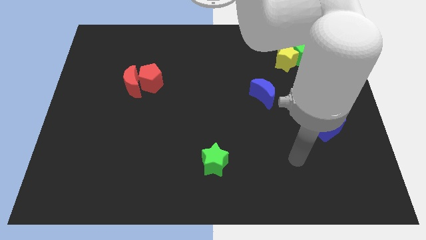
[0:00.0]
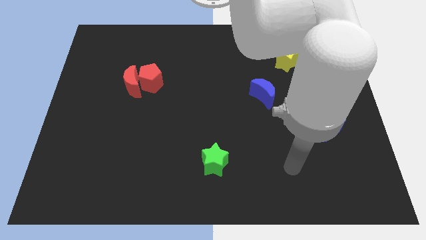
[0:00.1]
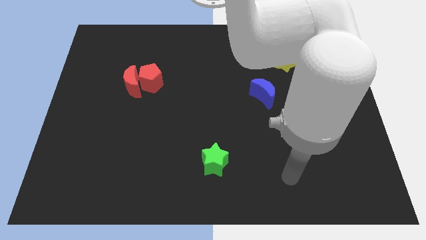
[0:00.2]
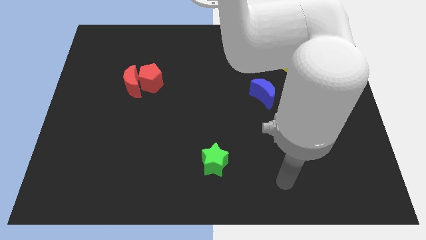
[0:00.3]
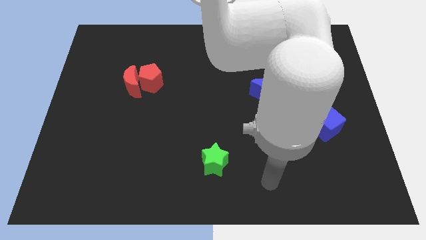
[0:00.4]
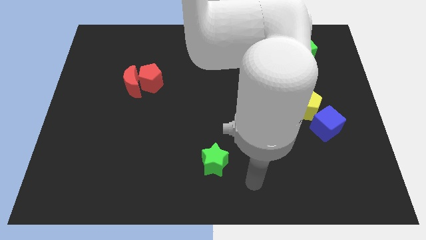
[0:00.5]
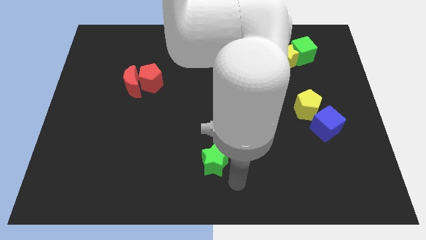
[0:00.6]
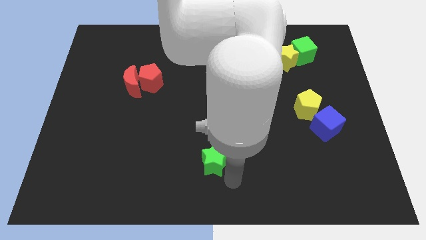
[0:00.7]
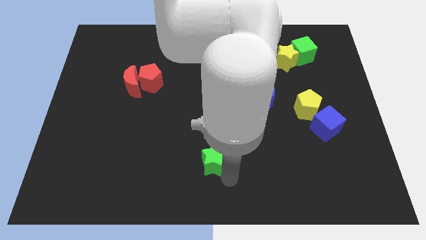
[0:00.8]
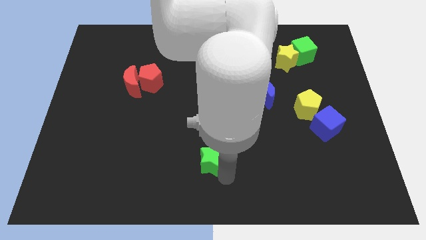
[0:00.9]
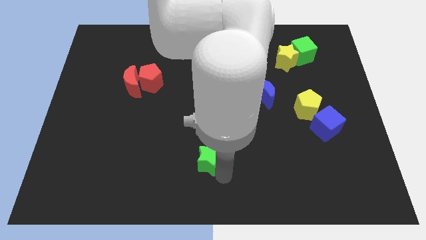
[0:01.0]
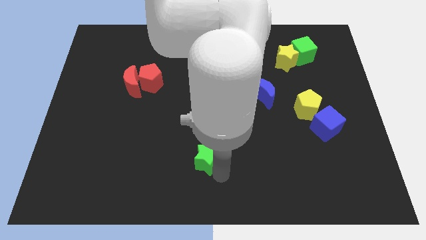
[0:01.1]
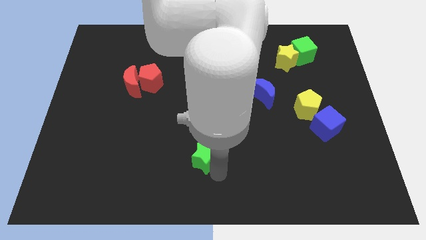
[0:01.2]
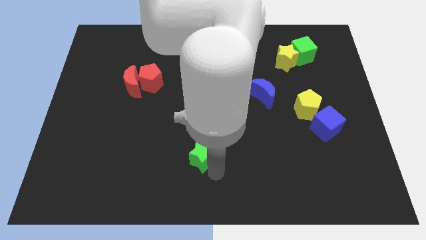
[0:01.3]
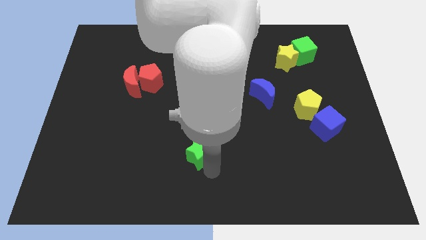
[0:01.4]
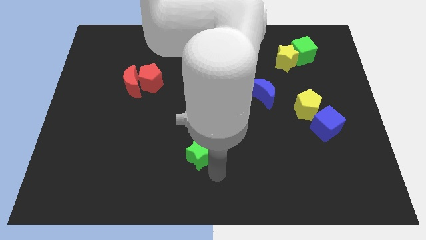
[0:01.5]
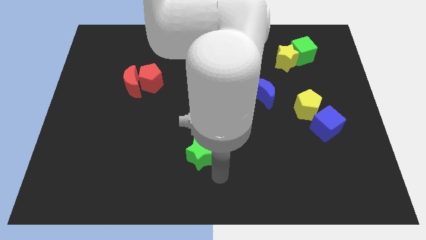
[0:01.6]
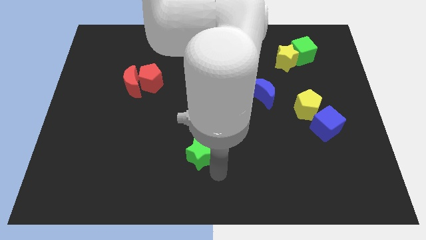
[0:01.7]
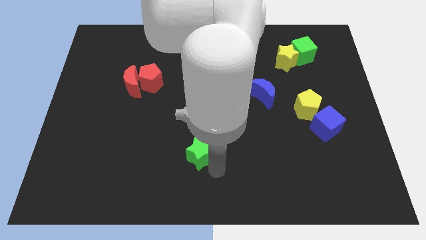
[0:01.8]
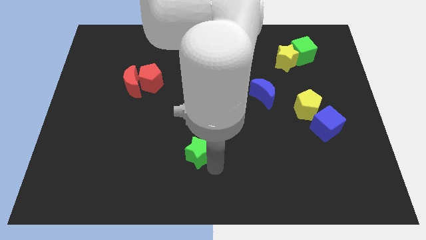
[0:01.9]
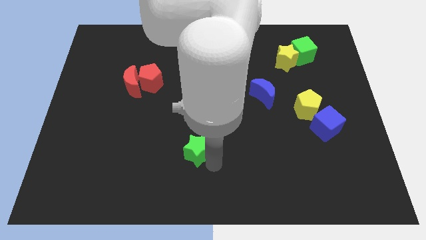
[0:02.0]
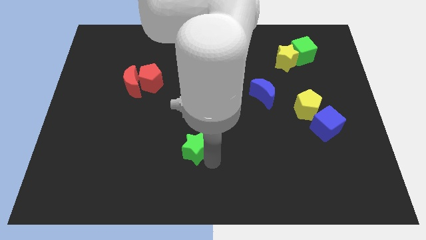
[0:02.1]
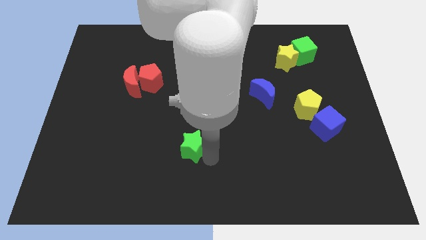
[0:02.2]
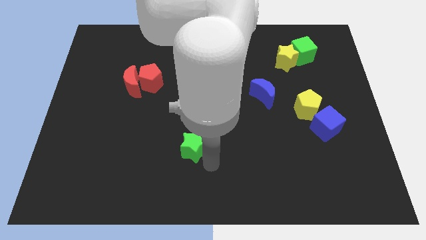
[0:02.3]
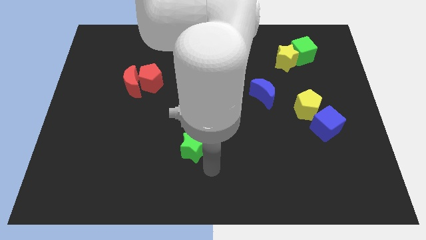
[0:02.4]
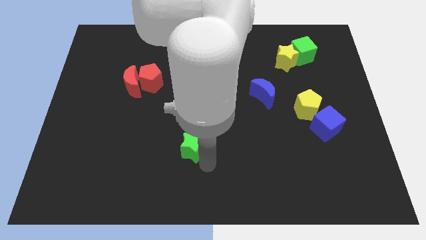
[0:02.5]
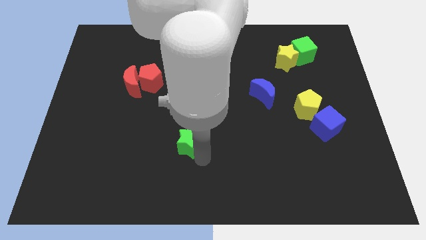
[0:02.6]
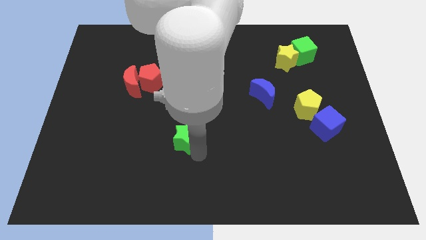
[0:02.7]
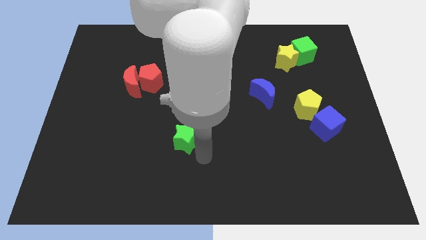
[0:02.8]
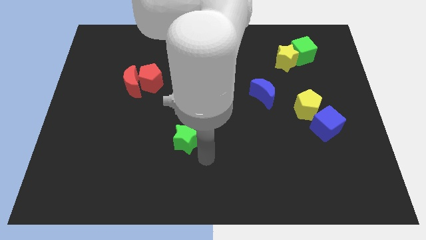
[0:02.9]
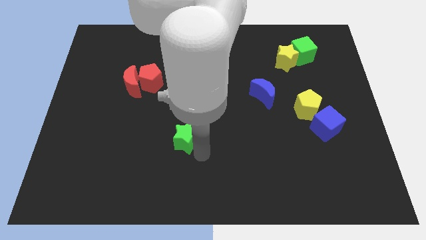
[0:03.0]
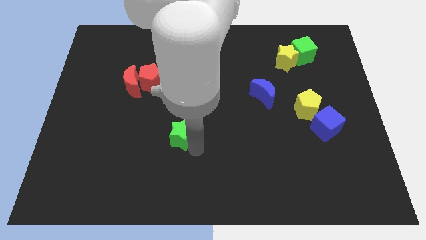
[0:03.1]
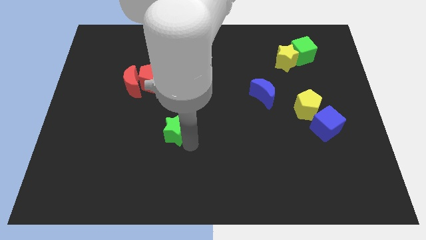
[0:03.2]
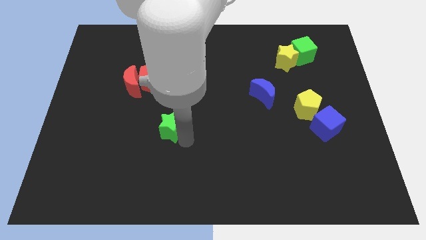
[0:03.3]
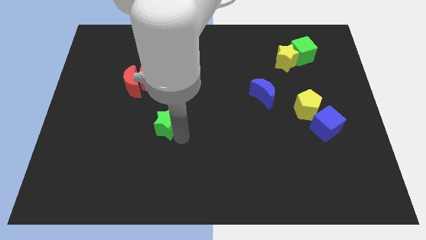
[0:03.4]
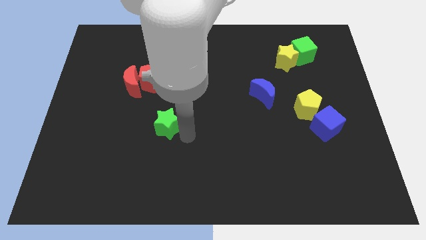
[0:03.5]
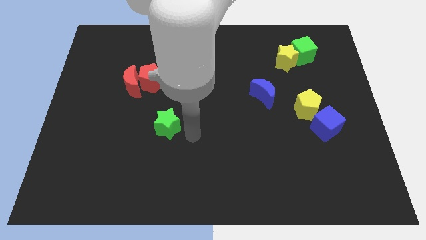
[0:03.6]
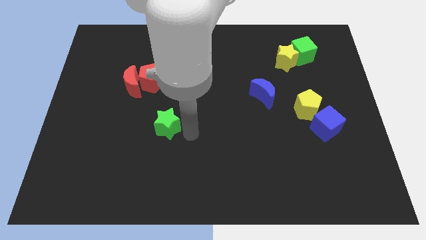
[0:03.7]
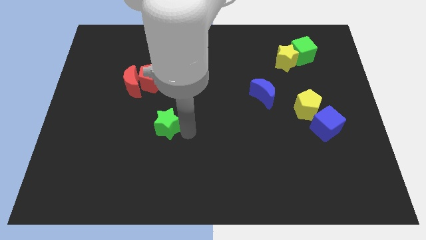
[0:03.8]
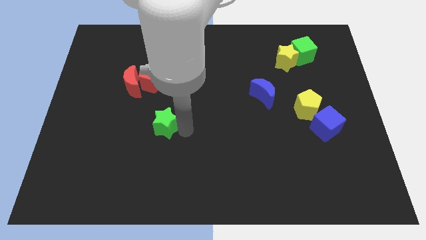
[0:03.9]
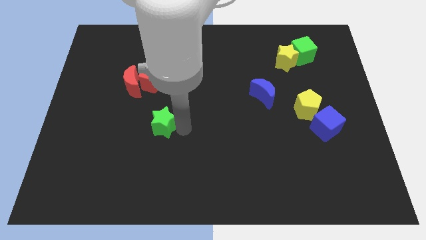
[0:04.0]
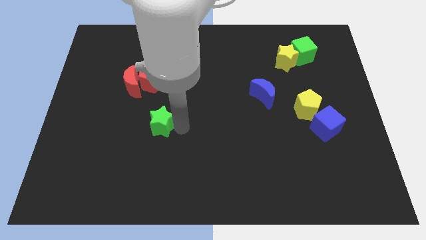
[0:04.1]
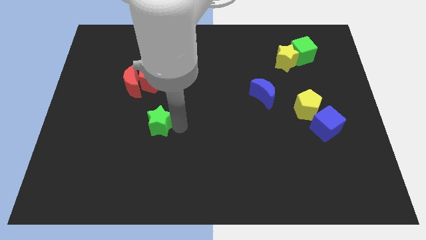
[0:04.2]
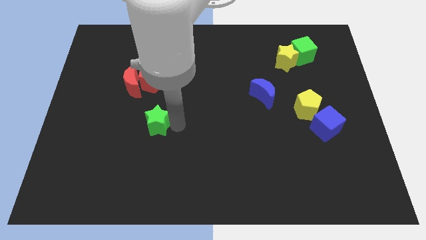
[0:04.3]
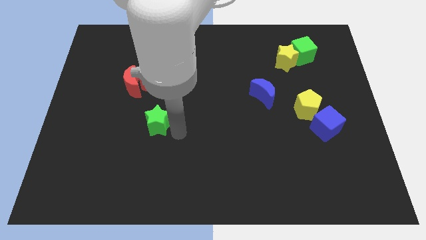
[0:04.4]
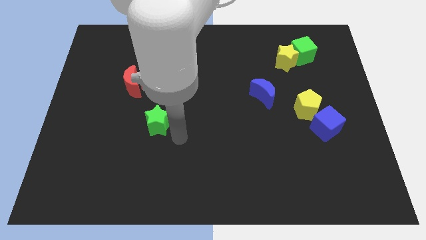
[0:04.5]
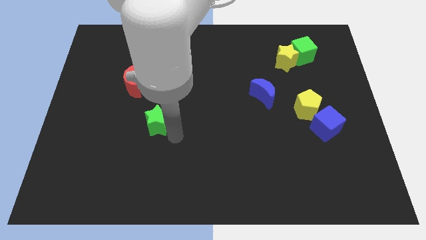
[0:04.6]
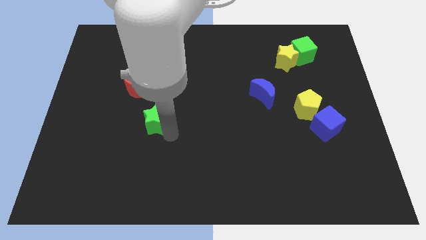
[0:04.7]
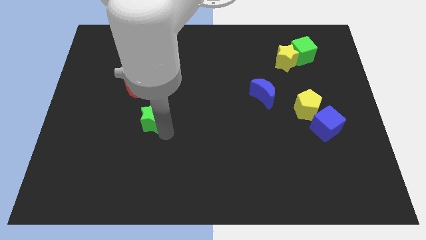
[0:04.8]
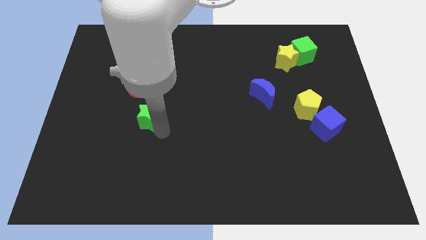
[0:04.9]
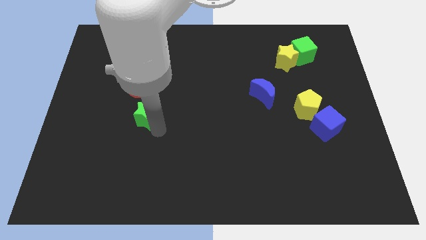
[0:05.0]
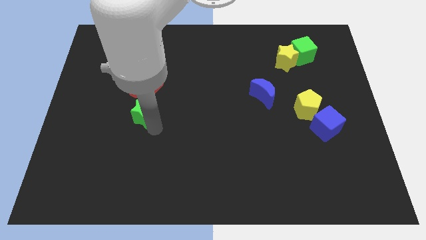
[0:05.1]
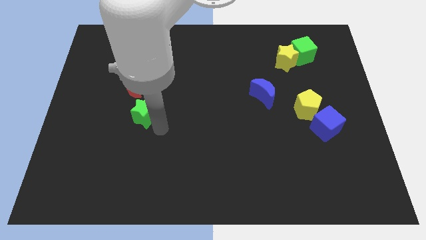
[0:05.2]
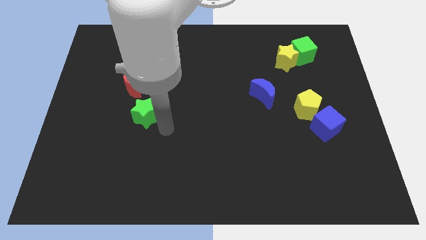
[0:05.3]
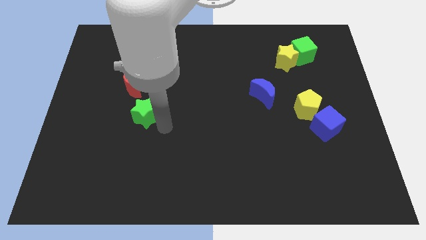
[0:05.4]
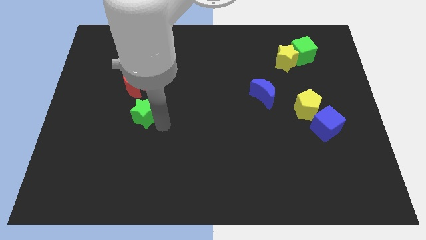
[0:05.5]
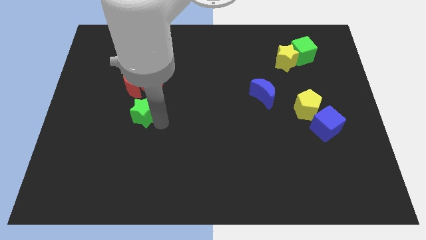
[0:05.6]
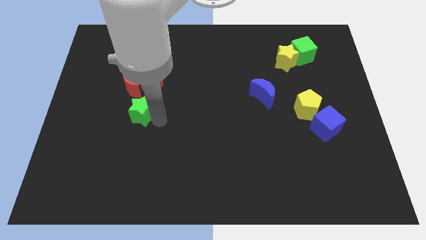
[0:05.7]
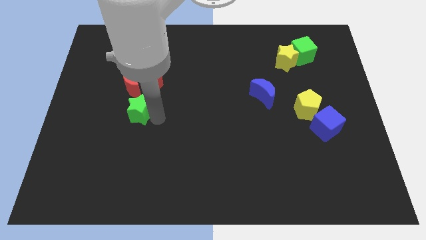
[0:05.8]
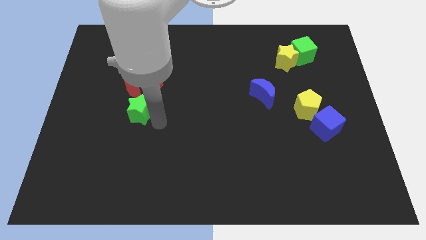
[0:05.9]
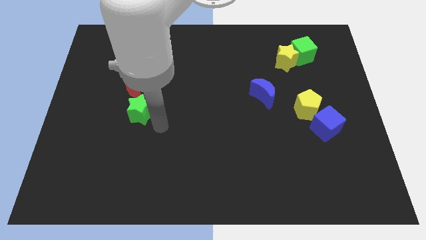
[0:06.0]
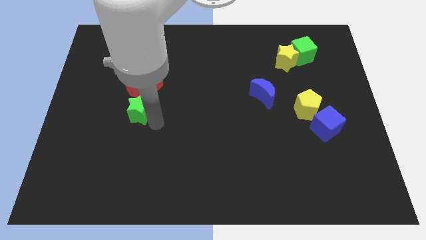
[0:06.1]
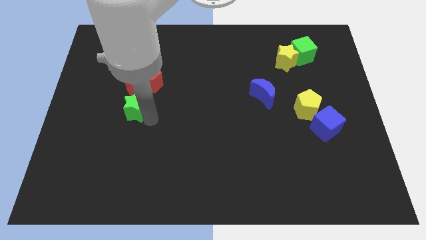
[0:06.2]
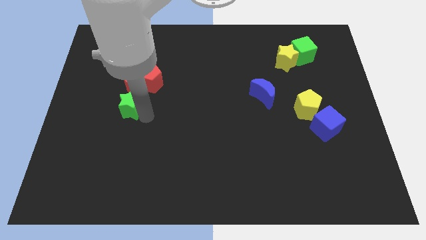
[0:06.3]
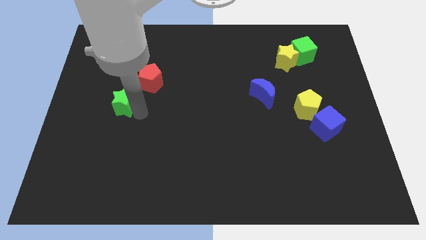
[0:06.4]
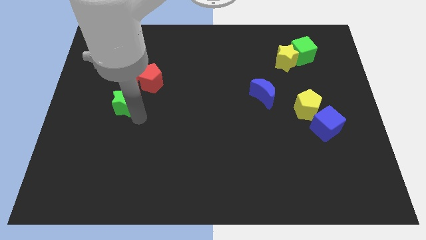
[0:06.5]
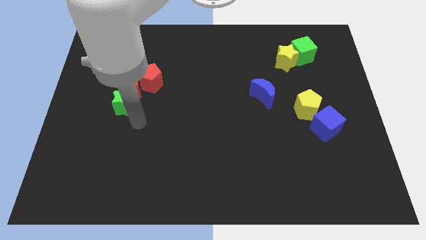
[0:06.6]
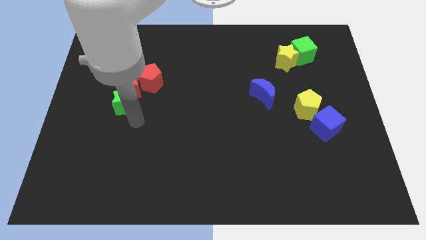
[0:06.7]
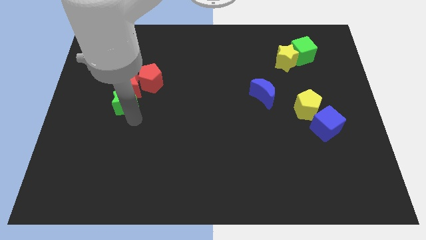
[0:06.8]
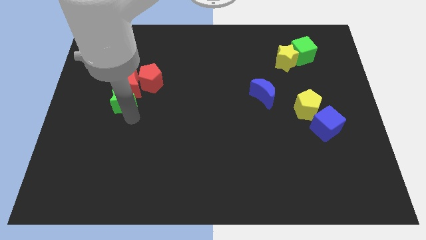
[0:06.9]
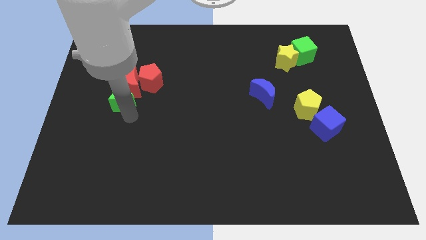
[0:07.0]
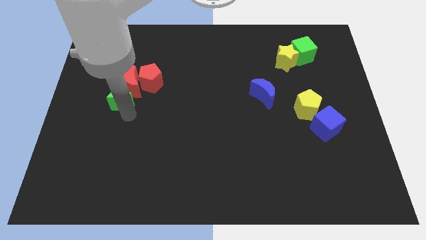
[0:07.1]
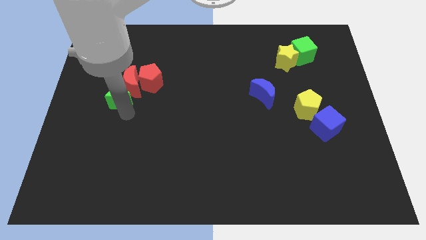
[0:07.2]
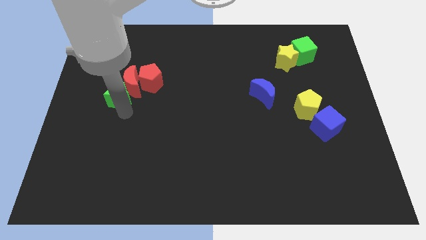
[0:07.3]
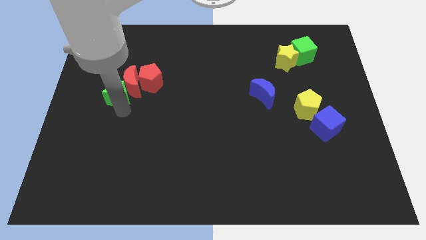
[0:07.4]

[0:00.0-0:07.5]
push the green star to the left of the red pentagon
